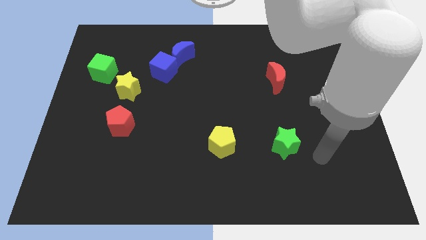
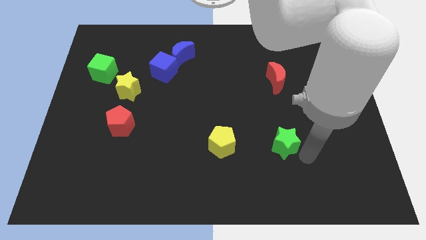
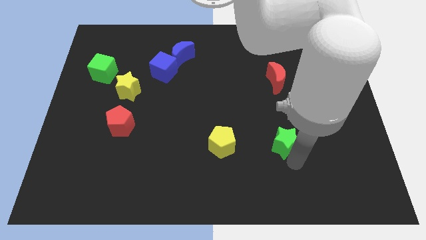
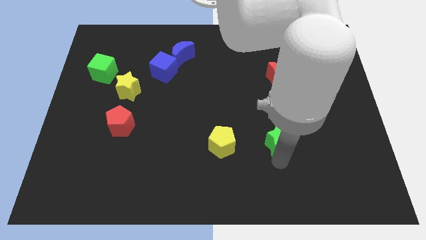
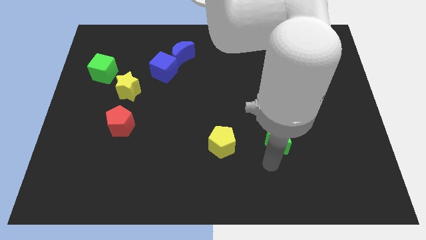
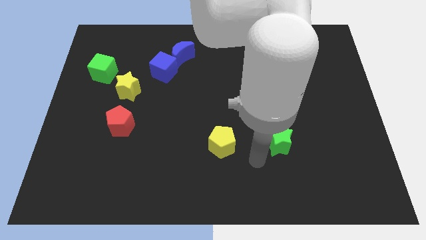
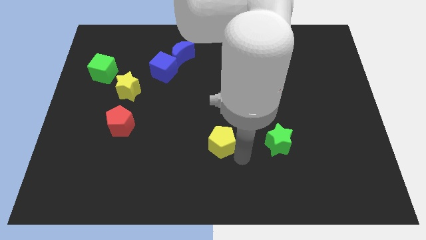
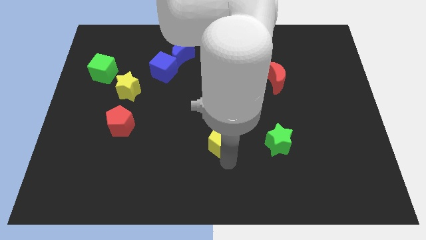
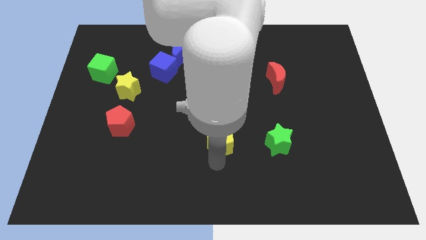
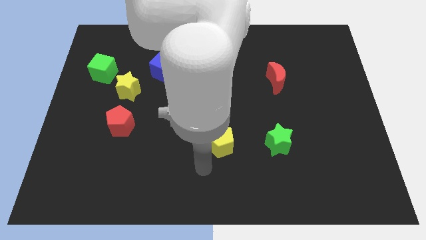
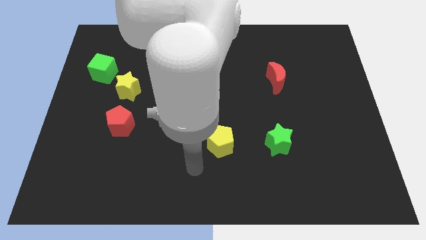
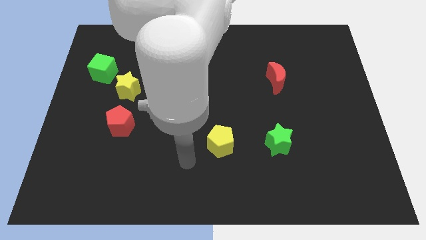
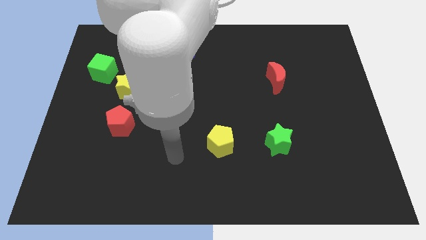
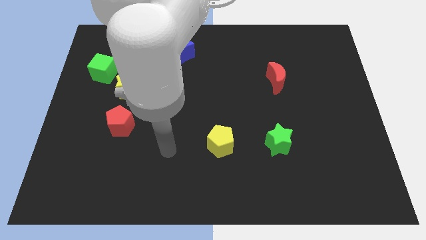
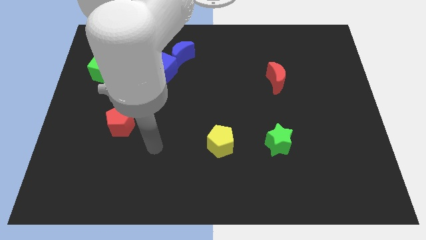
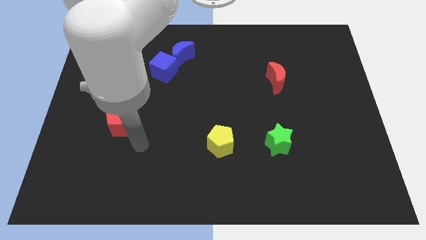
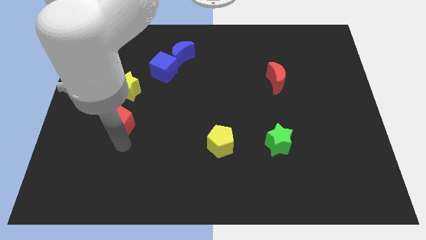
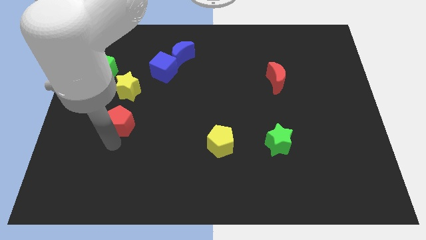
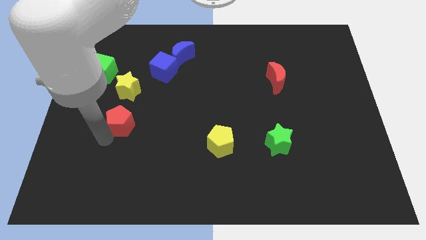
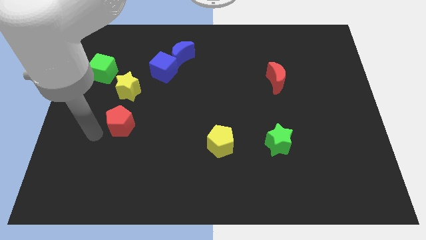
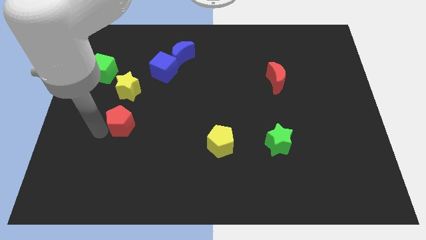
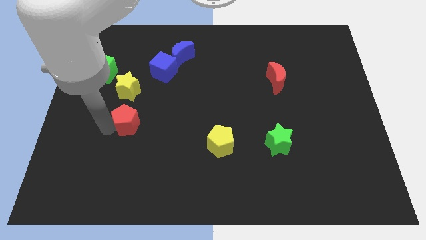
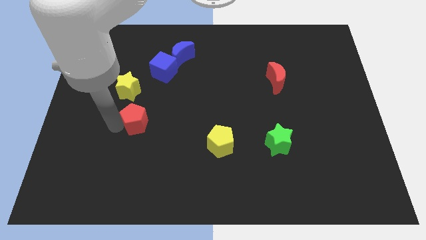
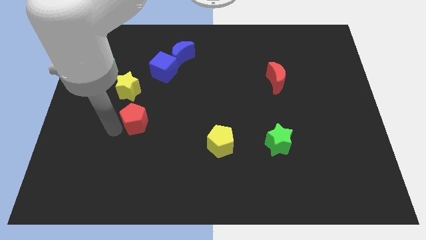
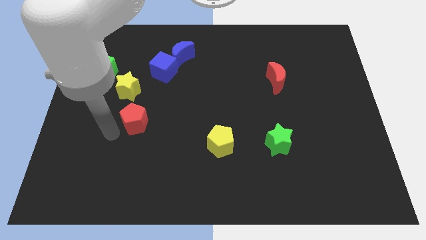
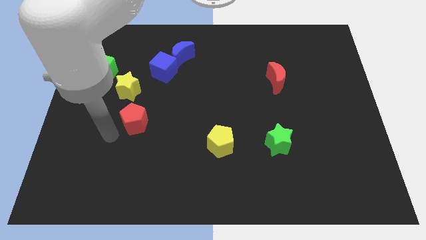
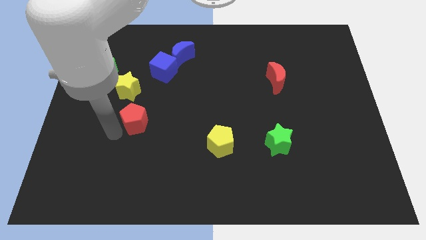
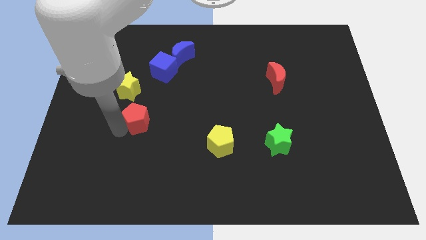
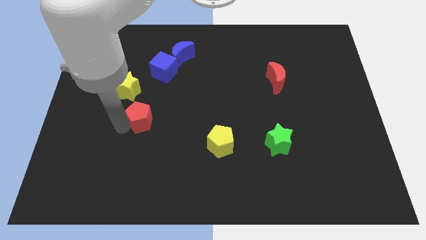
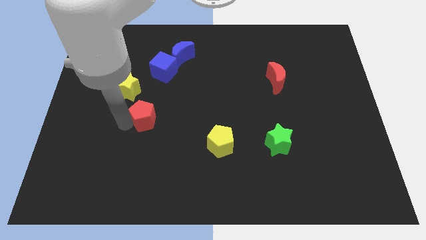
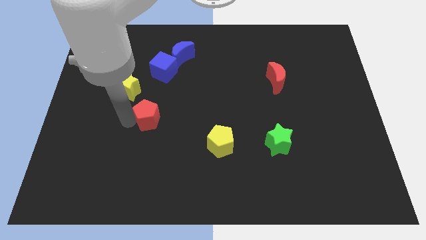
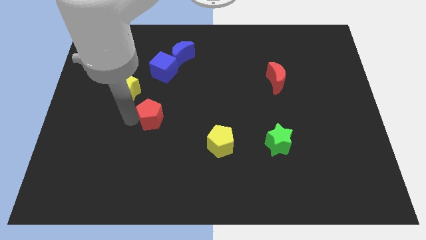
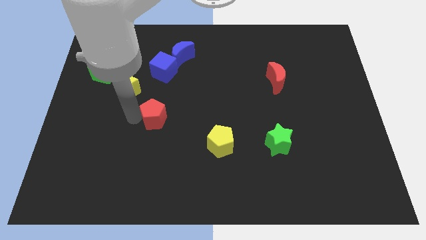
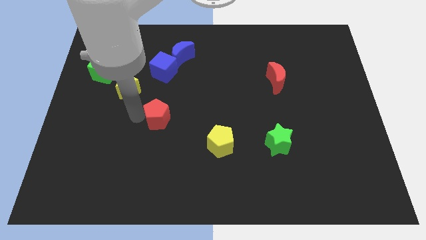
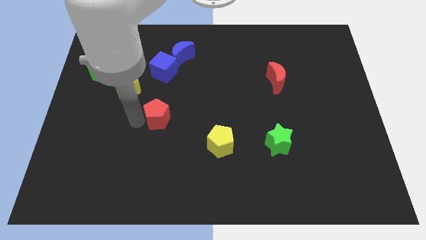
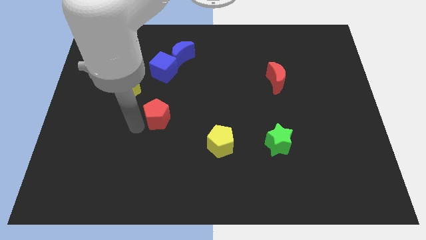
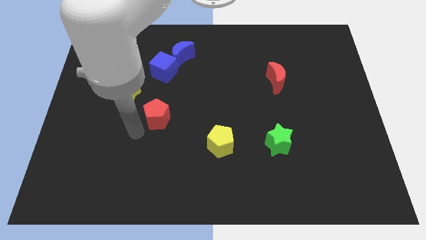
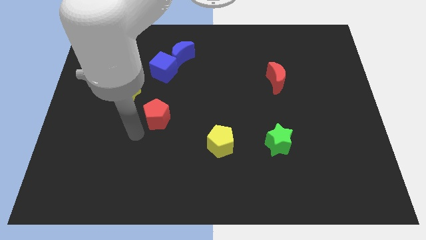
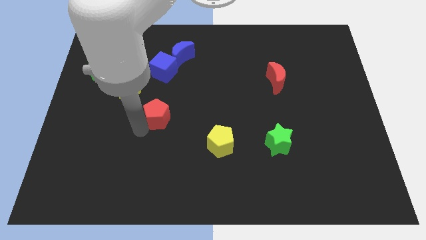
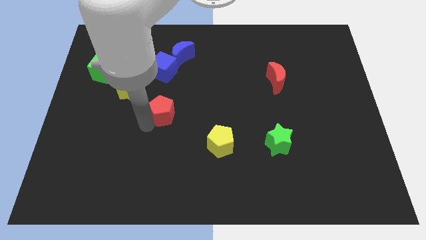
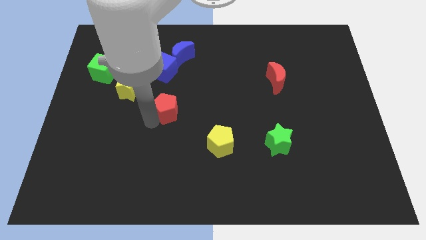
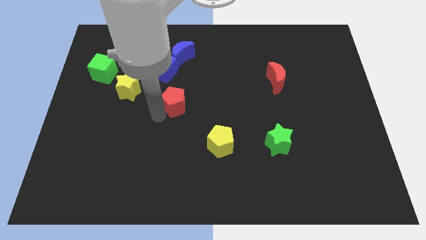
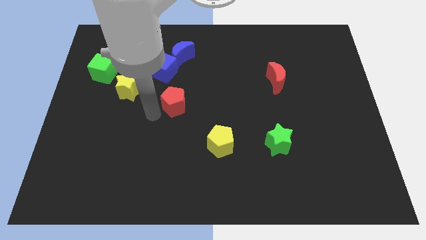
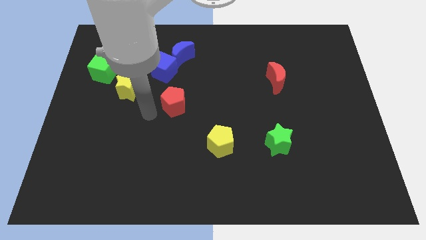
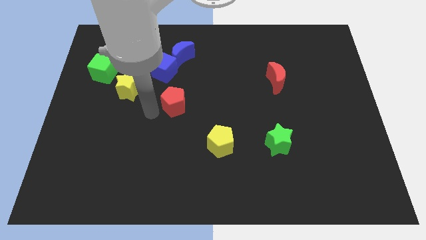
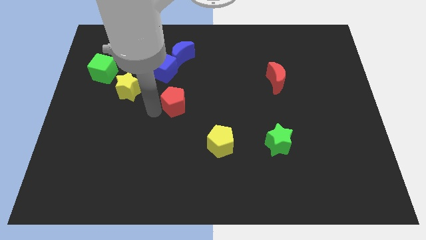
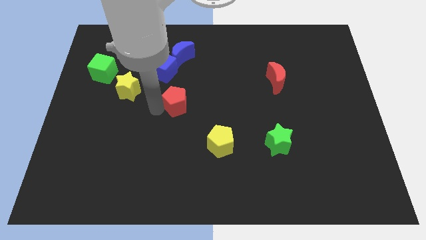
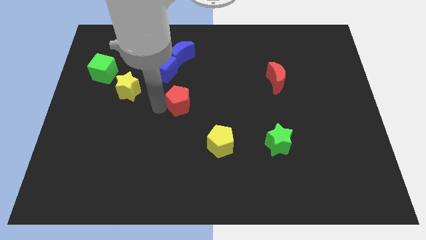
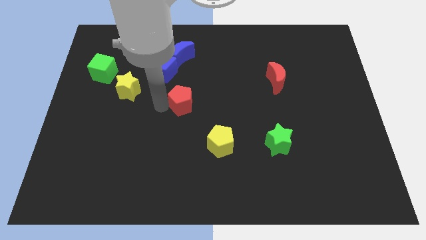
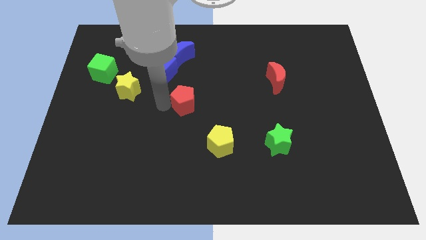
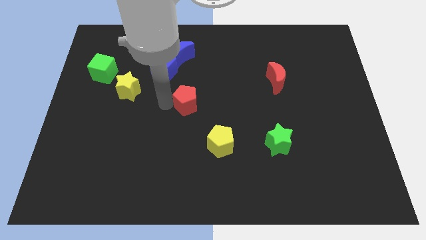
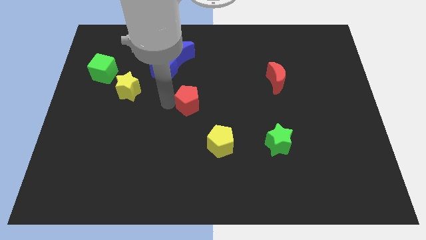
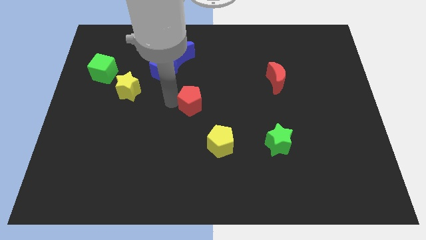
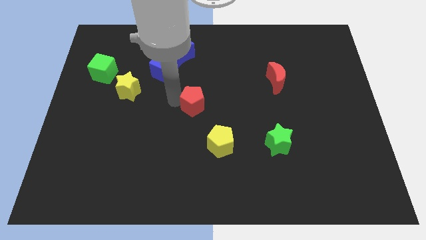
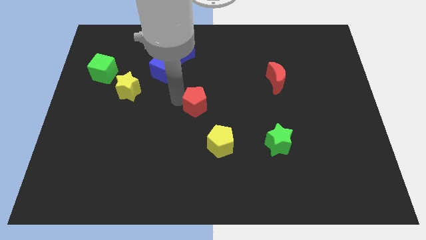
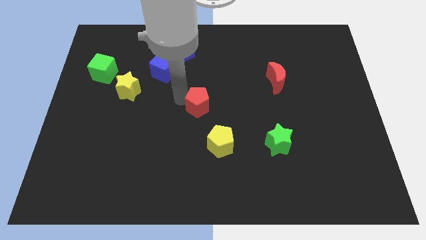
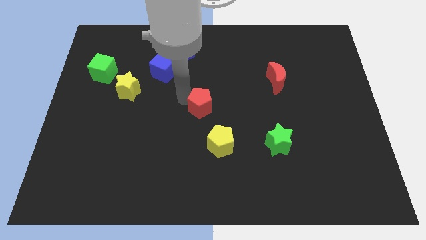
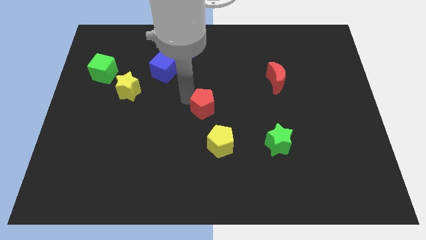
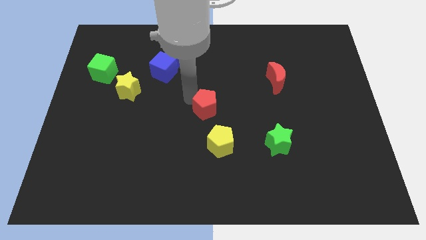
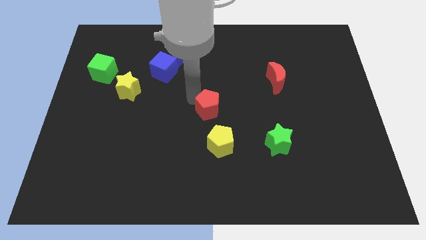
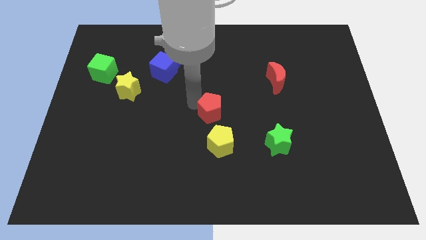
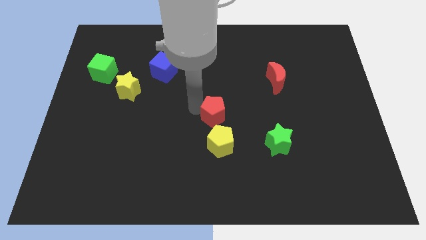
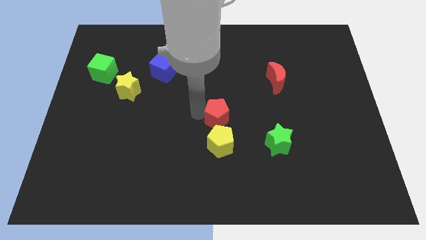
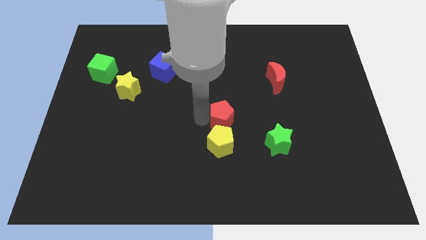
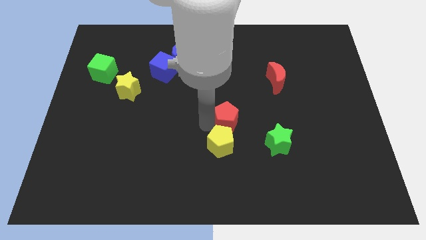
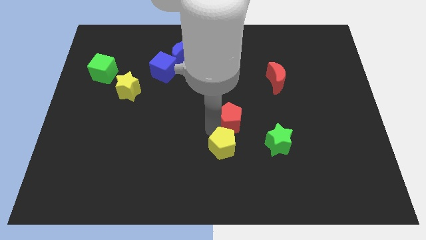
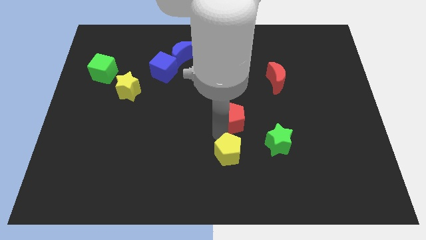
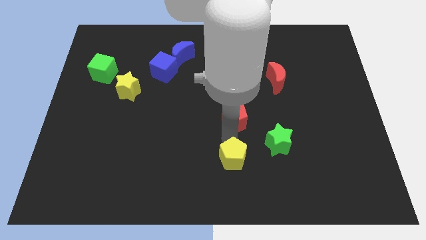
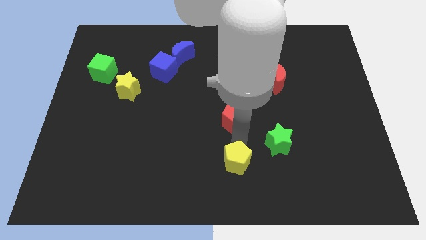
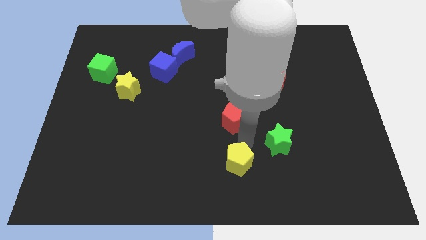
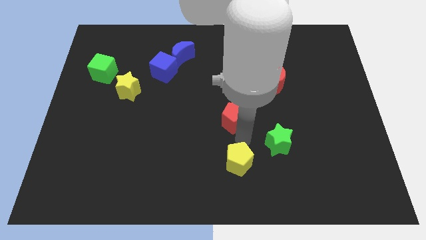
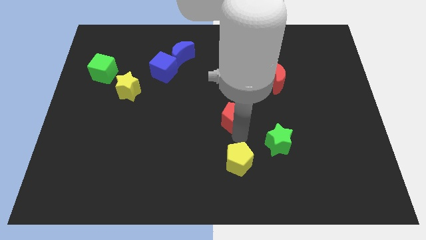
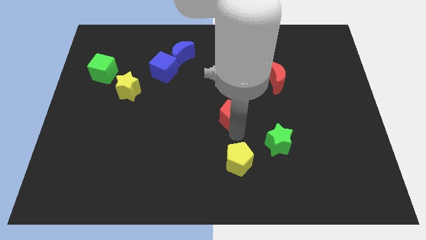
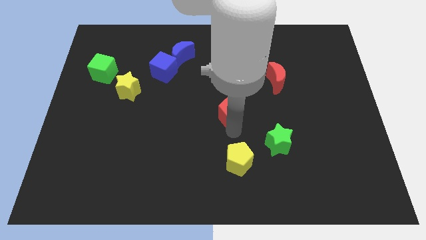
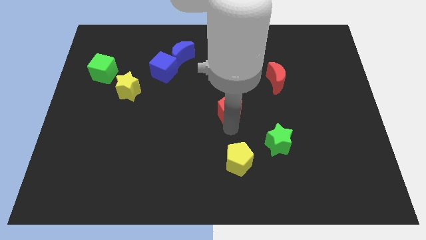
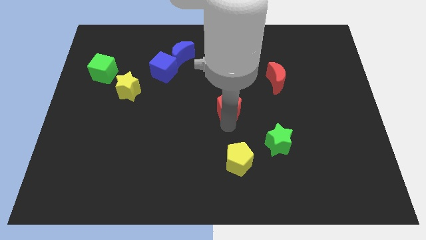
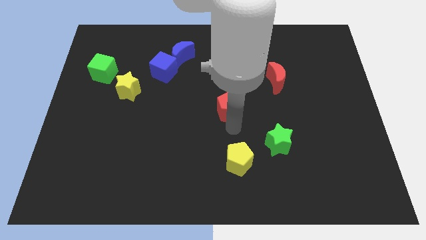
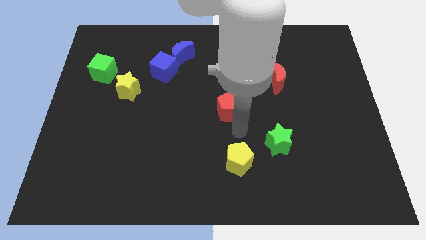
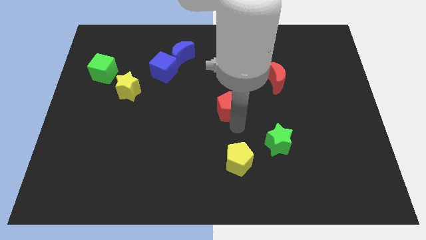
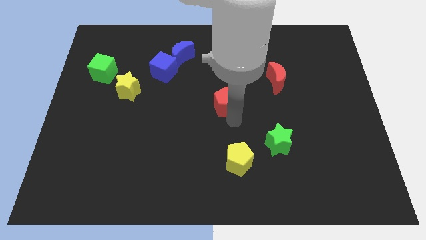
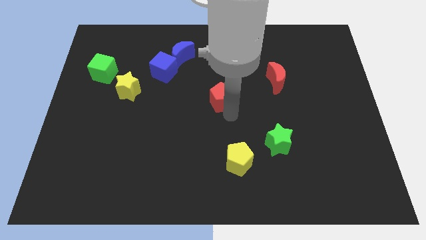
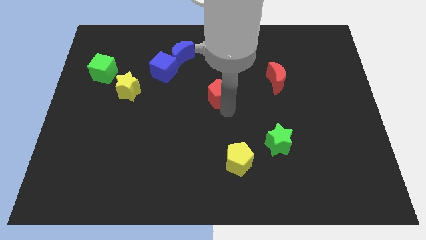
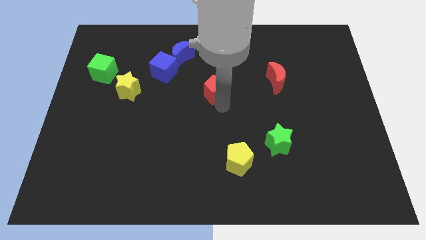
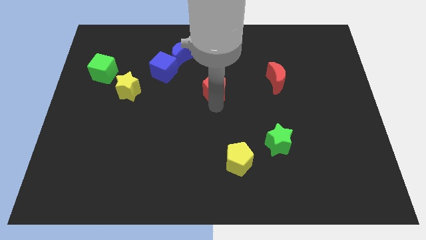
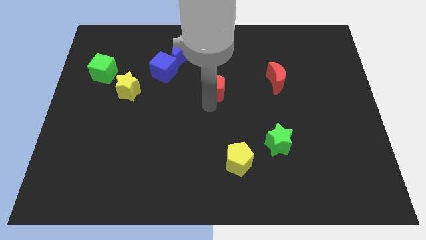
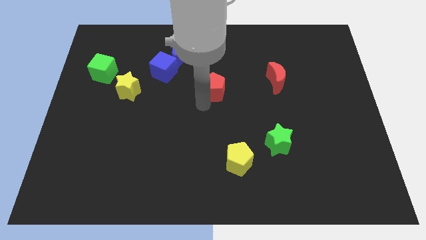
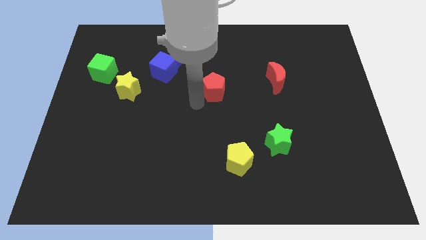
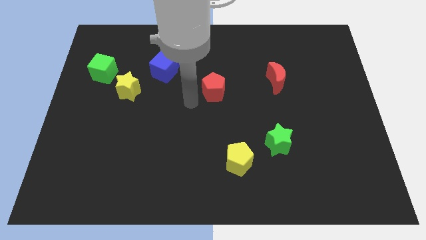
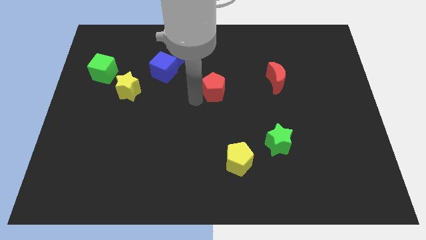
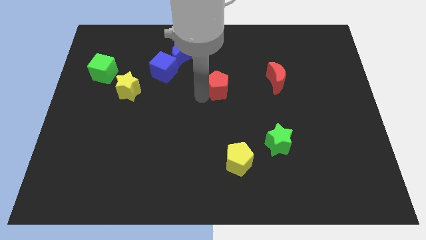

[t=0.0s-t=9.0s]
put the red pentagon to the left of the red moon
